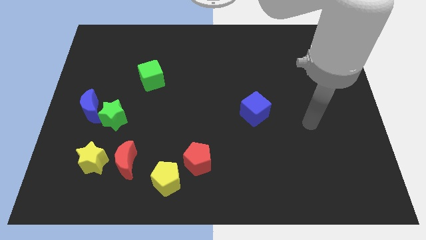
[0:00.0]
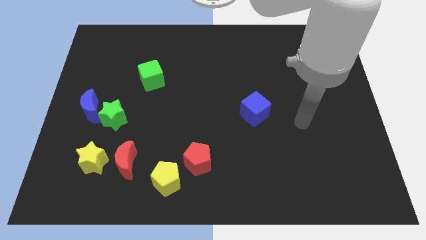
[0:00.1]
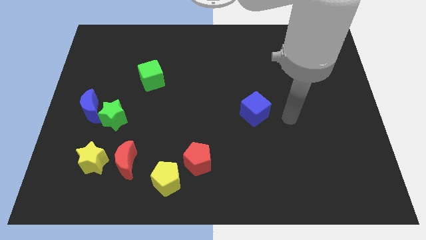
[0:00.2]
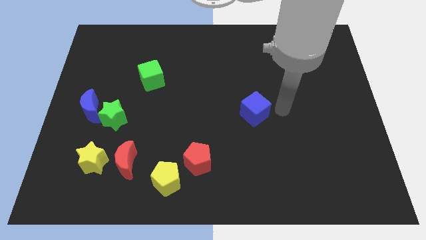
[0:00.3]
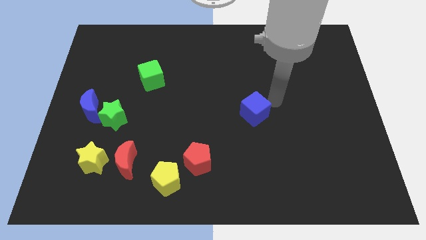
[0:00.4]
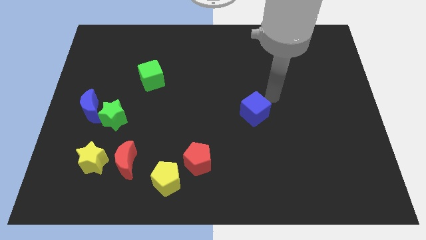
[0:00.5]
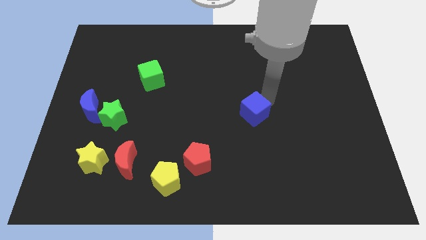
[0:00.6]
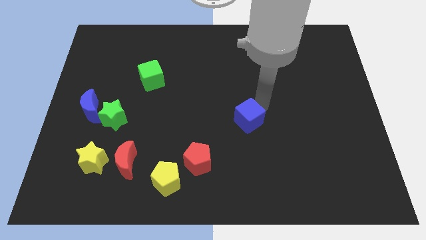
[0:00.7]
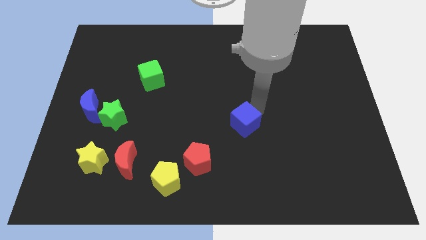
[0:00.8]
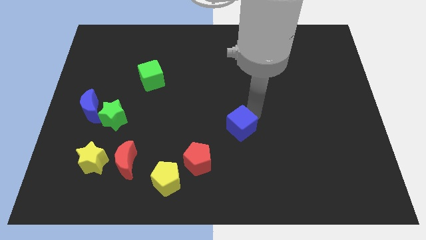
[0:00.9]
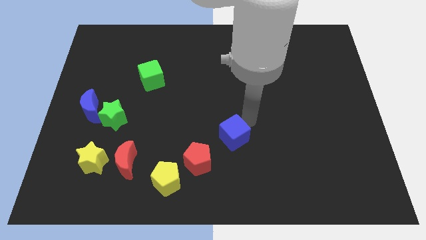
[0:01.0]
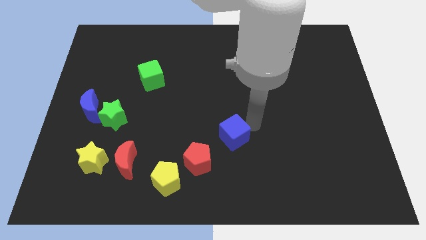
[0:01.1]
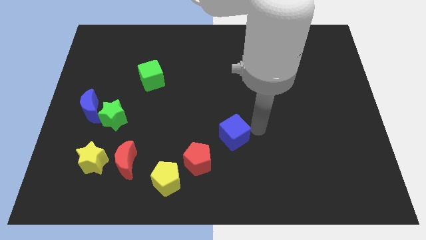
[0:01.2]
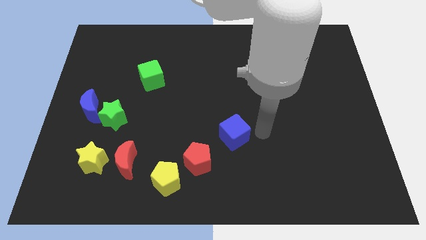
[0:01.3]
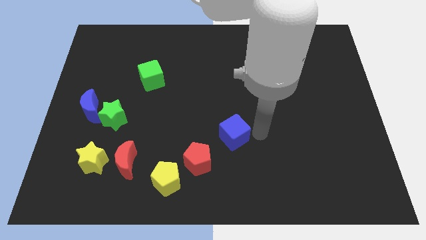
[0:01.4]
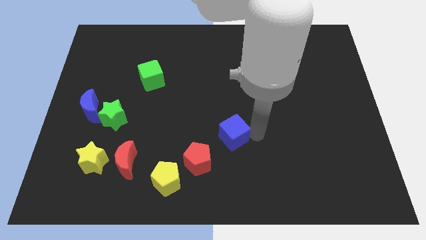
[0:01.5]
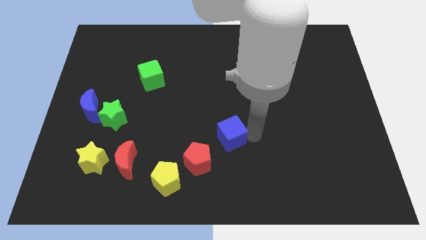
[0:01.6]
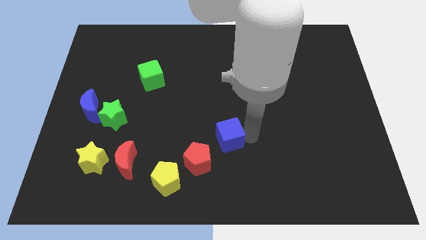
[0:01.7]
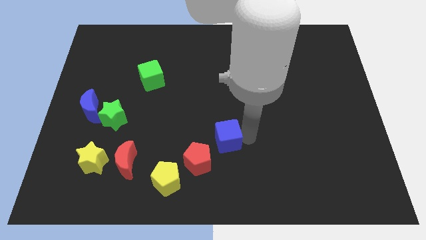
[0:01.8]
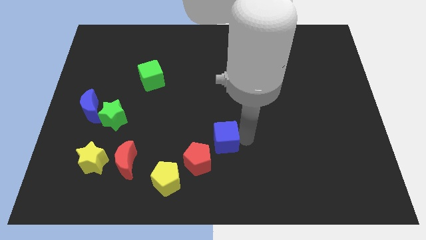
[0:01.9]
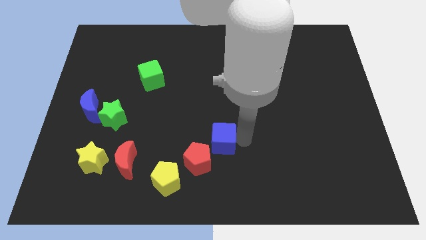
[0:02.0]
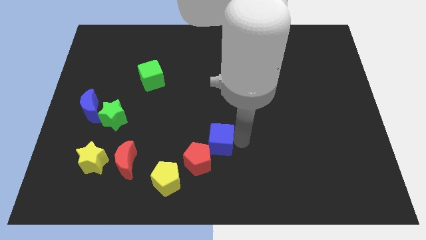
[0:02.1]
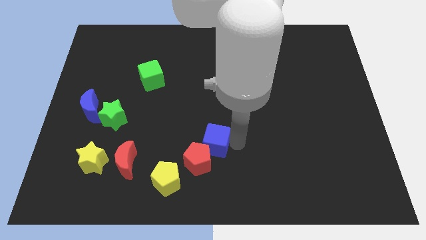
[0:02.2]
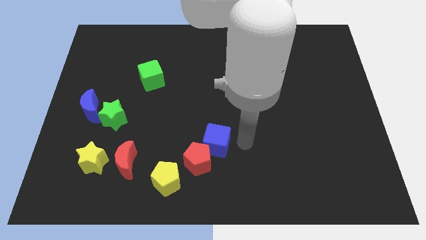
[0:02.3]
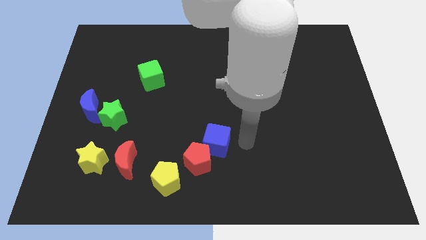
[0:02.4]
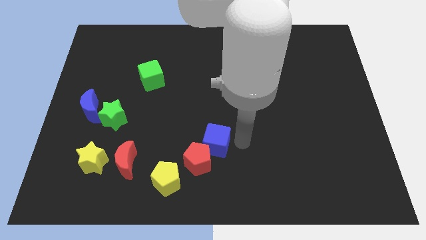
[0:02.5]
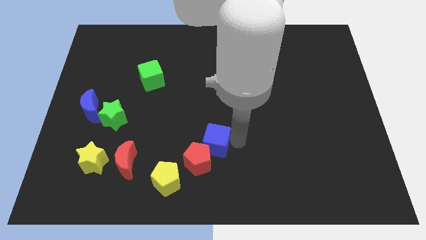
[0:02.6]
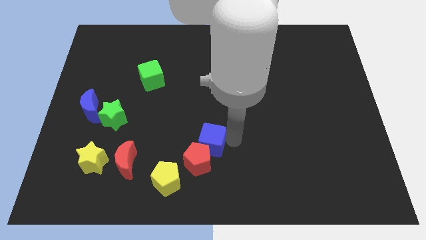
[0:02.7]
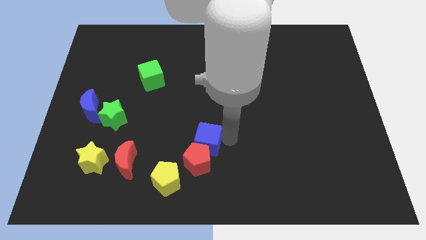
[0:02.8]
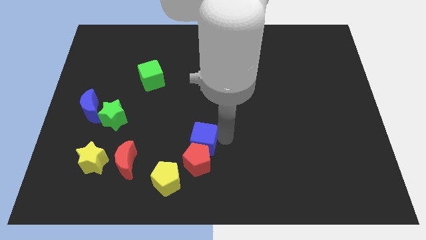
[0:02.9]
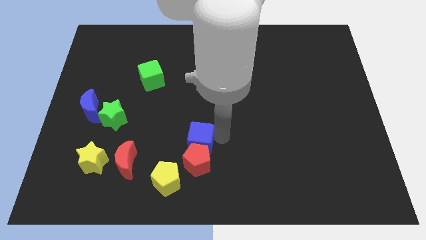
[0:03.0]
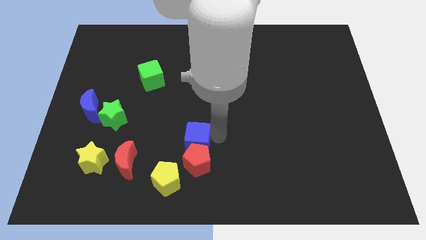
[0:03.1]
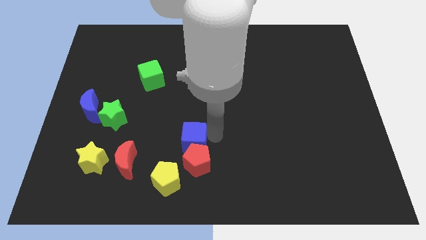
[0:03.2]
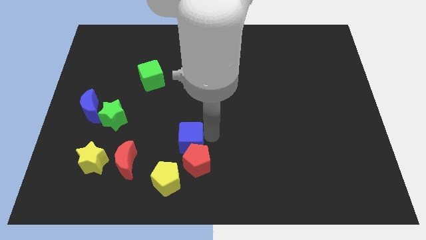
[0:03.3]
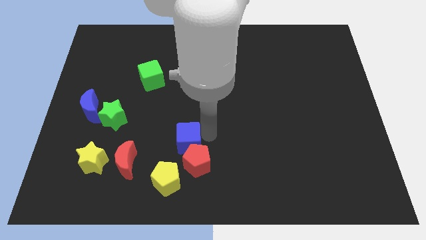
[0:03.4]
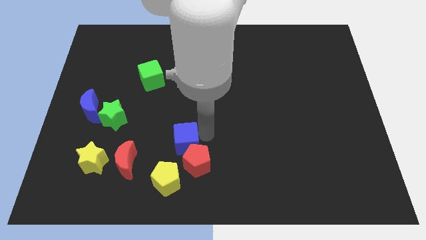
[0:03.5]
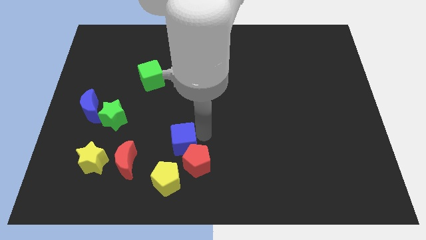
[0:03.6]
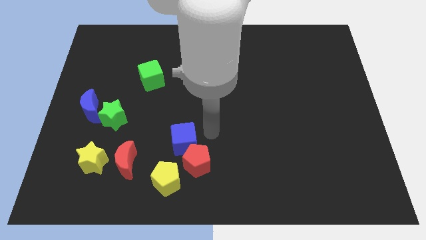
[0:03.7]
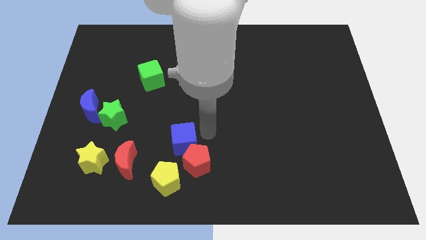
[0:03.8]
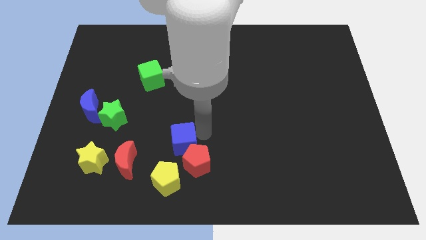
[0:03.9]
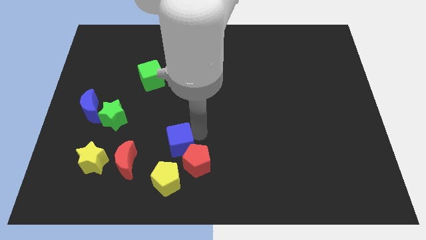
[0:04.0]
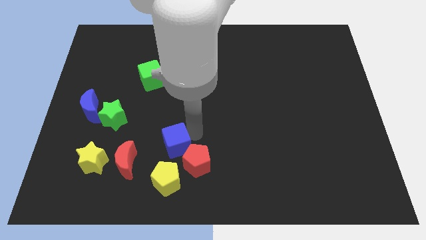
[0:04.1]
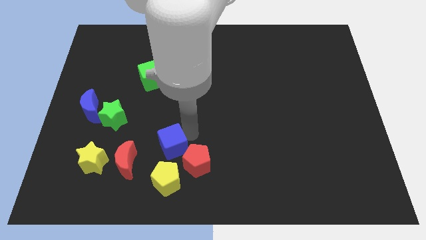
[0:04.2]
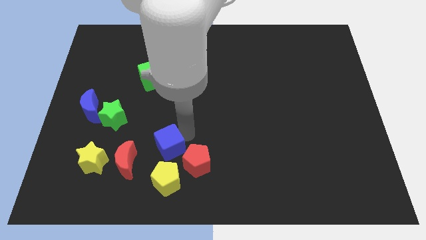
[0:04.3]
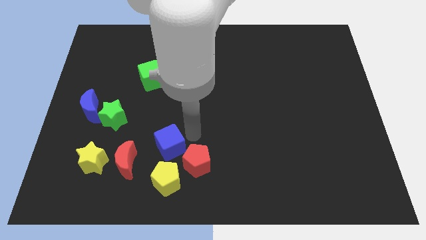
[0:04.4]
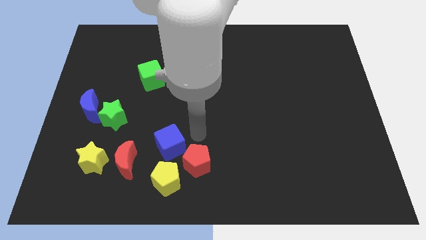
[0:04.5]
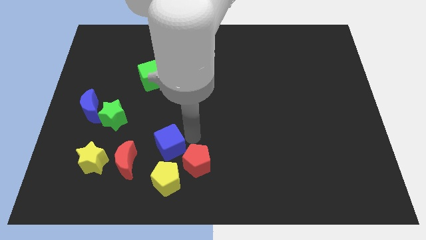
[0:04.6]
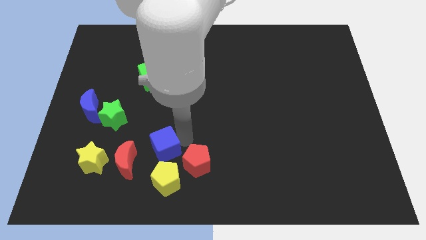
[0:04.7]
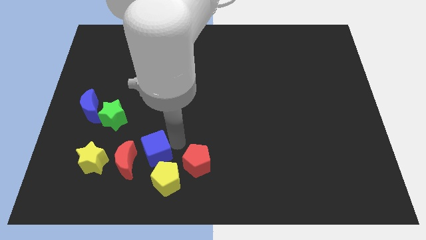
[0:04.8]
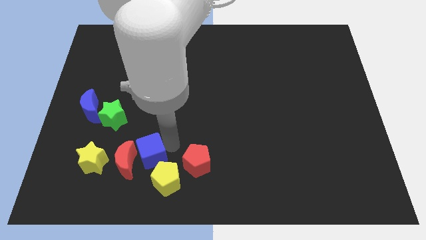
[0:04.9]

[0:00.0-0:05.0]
slide the blue cube to the red moon

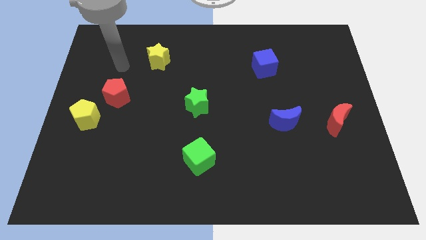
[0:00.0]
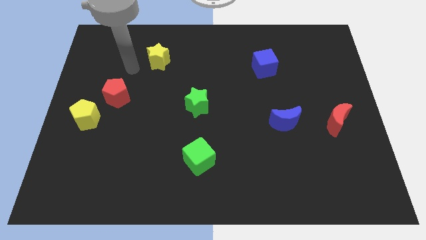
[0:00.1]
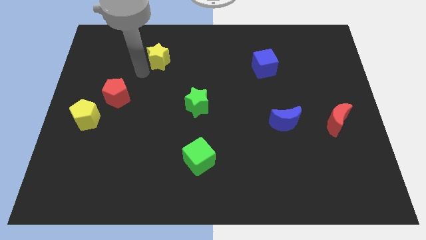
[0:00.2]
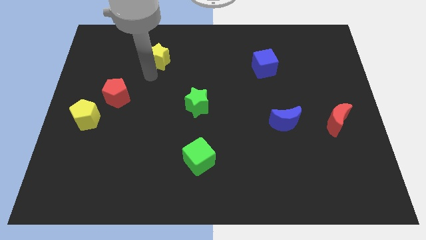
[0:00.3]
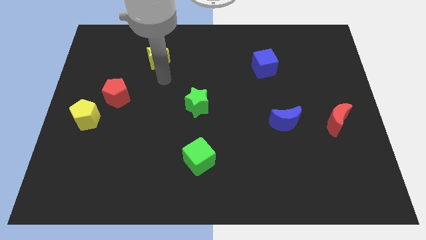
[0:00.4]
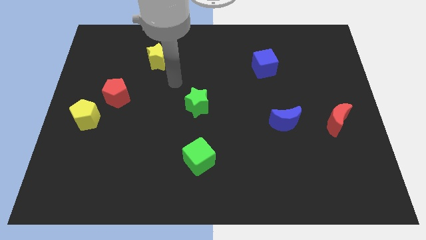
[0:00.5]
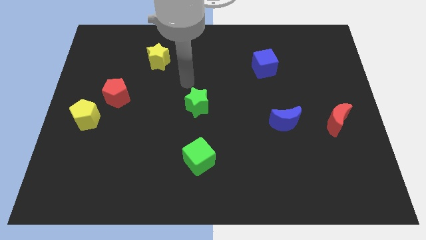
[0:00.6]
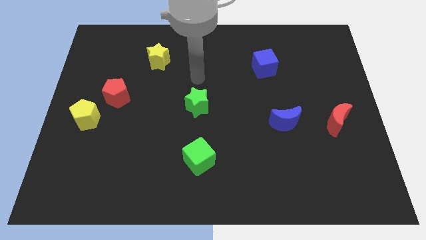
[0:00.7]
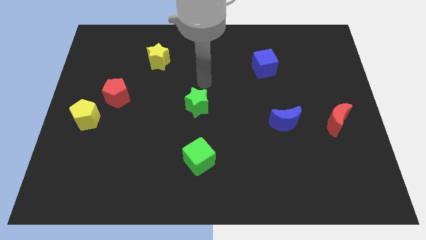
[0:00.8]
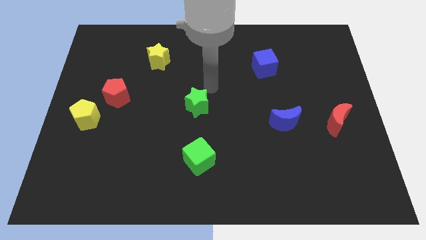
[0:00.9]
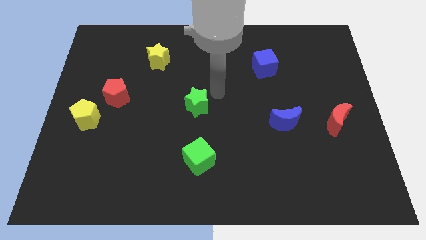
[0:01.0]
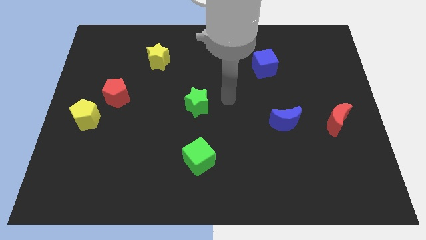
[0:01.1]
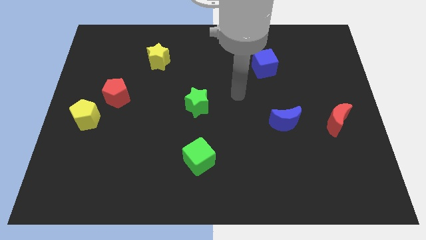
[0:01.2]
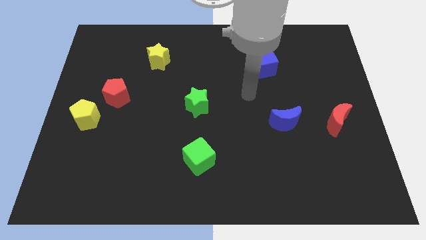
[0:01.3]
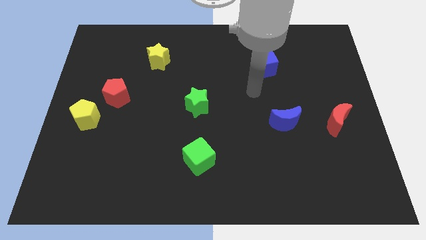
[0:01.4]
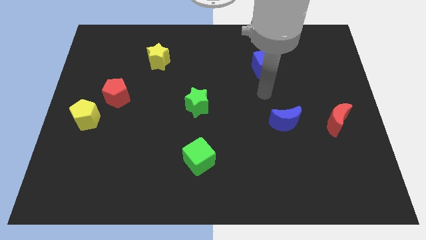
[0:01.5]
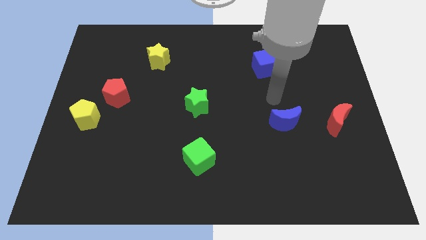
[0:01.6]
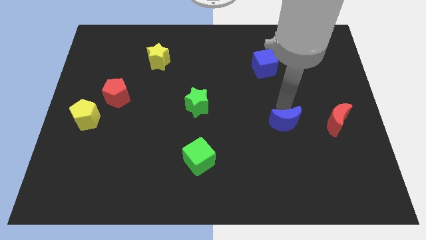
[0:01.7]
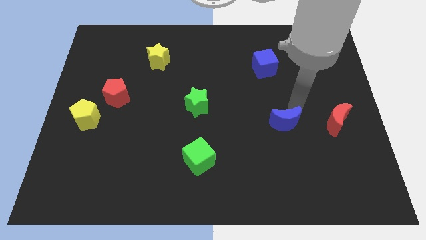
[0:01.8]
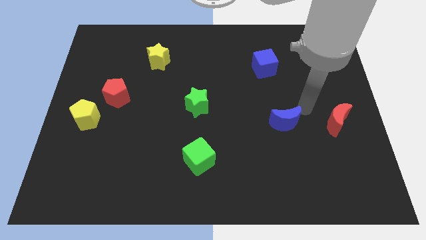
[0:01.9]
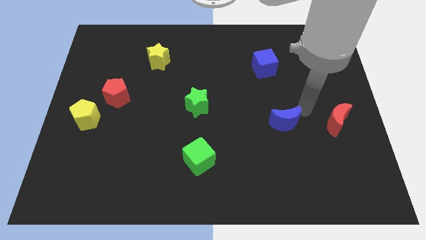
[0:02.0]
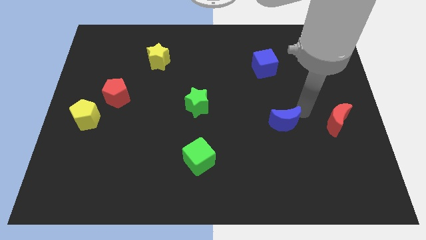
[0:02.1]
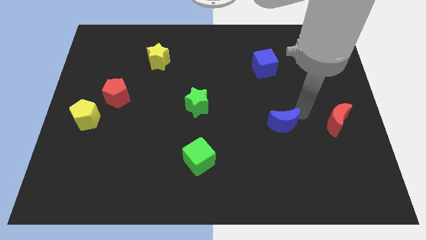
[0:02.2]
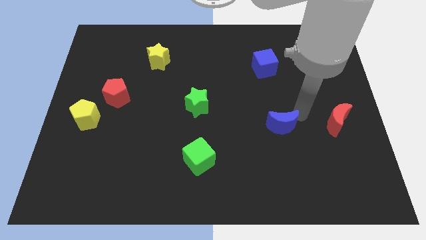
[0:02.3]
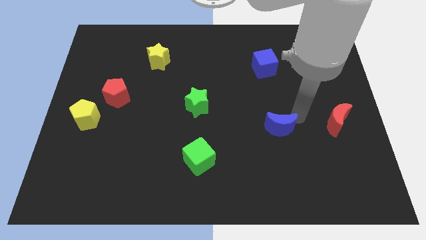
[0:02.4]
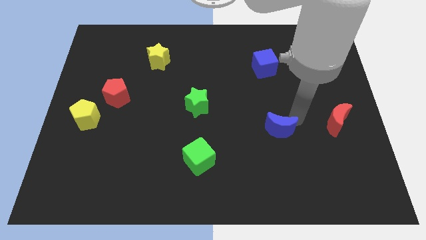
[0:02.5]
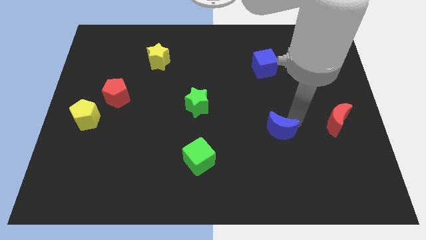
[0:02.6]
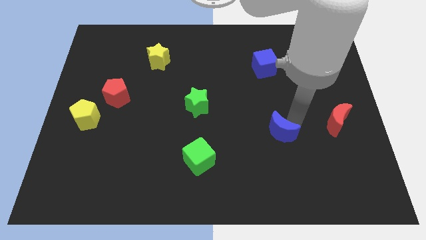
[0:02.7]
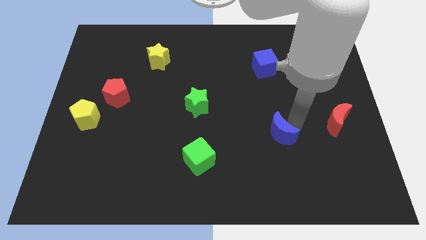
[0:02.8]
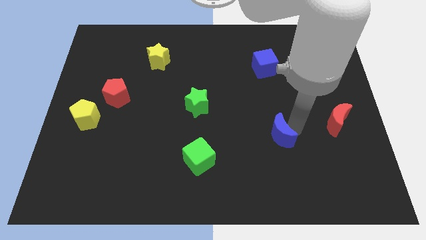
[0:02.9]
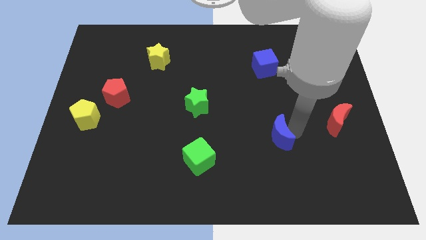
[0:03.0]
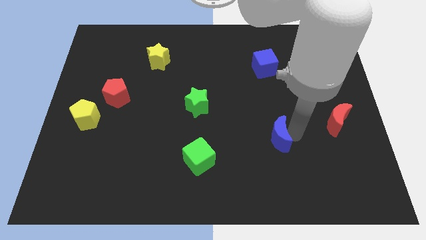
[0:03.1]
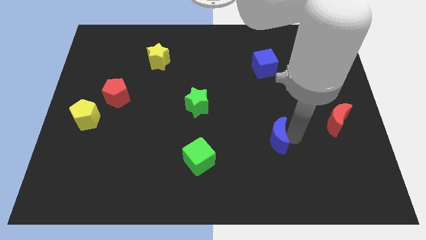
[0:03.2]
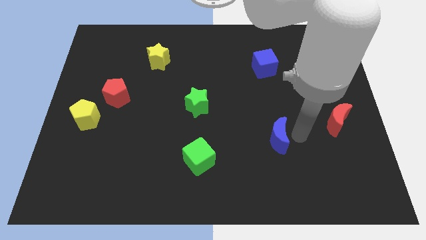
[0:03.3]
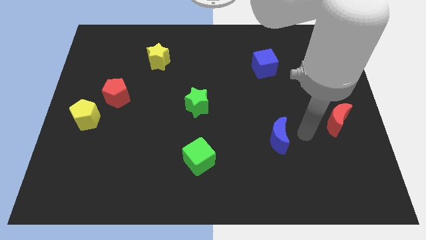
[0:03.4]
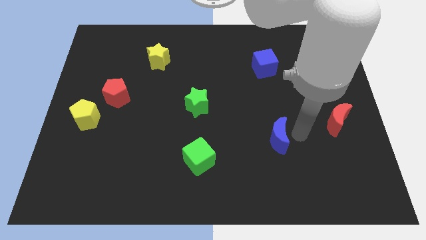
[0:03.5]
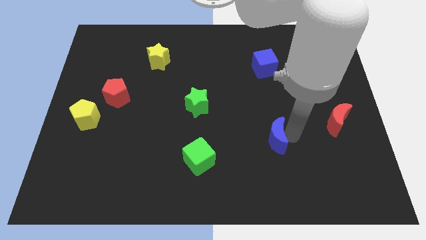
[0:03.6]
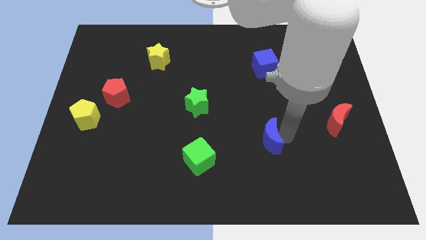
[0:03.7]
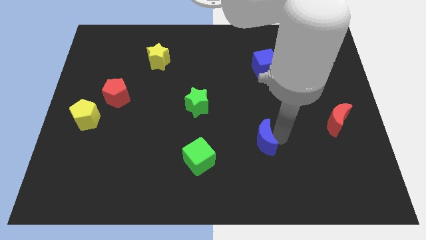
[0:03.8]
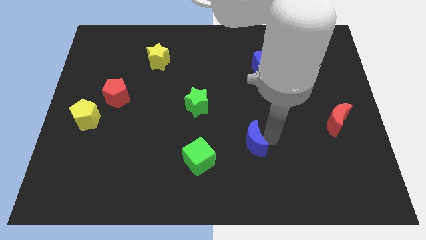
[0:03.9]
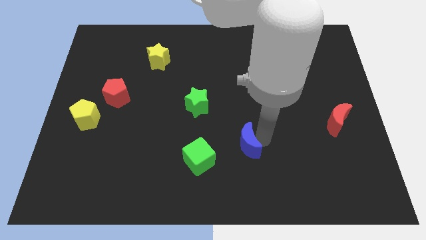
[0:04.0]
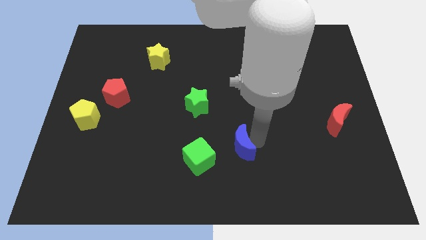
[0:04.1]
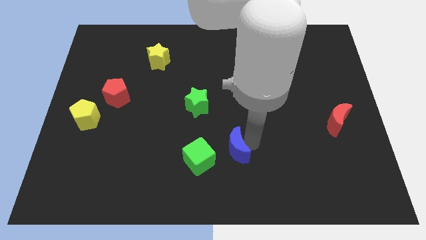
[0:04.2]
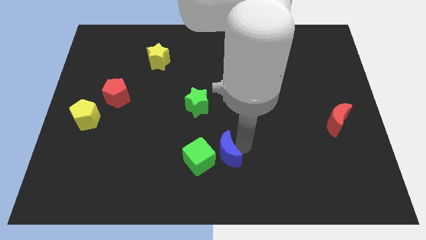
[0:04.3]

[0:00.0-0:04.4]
put the blue moon close to the green cube
